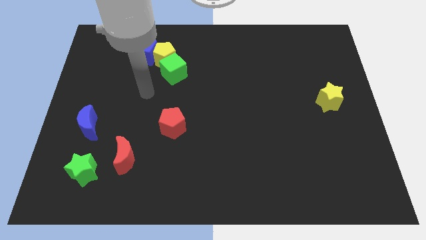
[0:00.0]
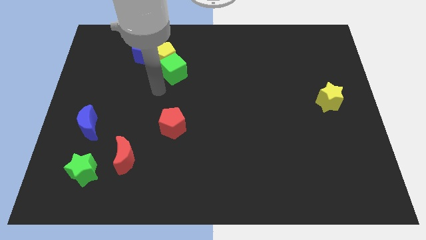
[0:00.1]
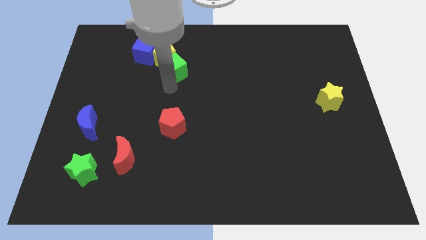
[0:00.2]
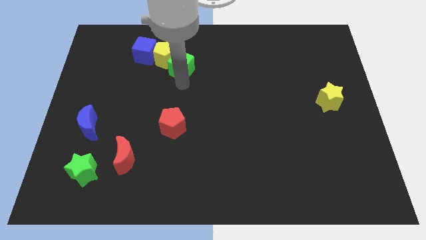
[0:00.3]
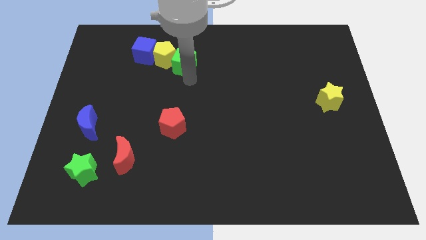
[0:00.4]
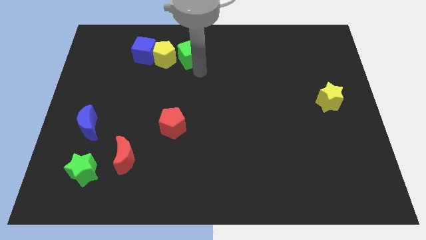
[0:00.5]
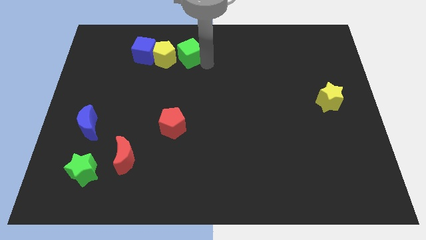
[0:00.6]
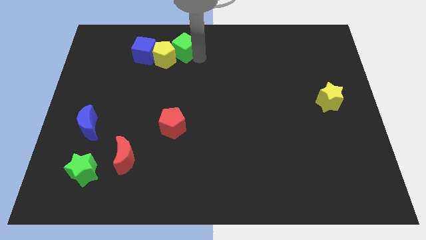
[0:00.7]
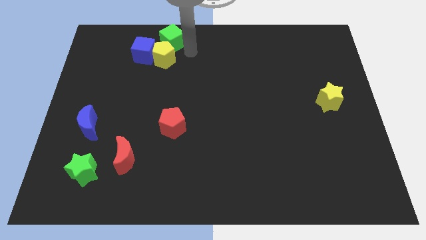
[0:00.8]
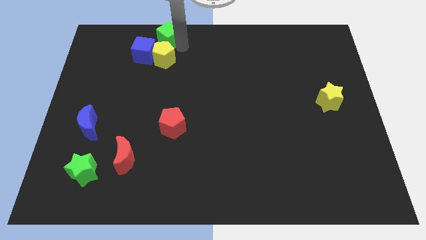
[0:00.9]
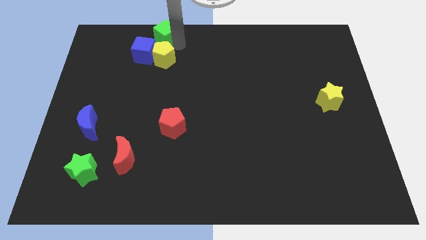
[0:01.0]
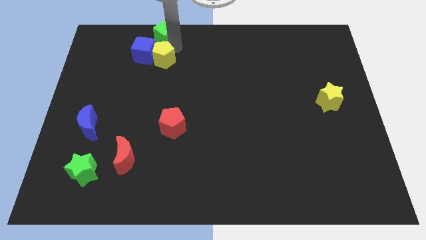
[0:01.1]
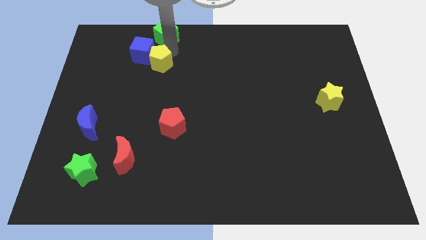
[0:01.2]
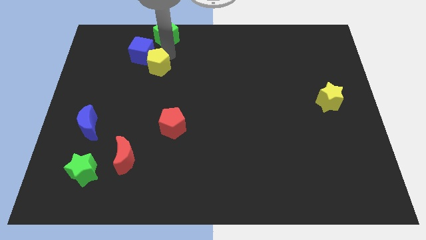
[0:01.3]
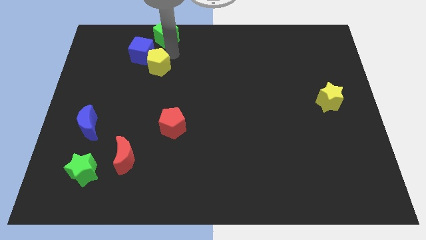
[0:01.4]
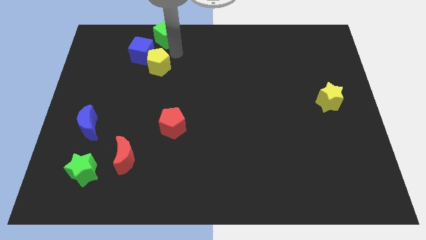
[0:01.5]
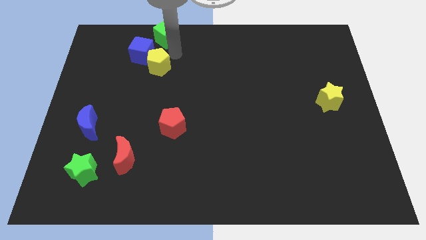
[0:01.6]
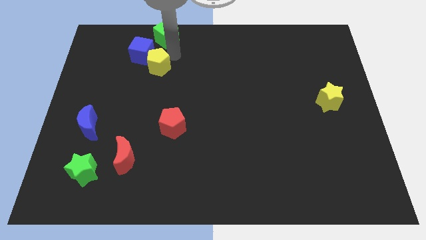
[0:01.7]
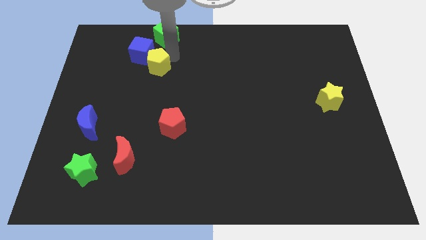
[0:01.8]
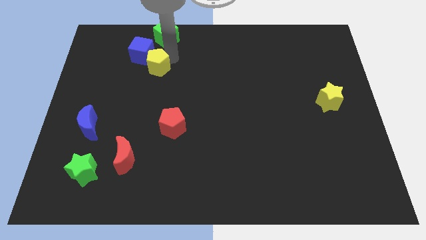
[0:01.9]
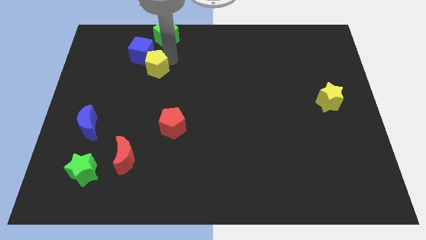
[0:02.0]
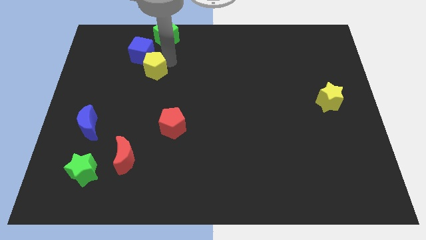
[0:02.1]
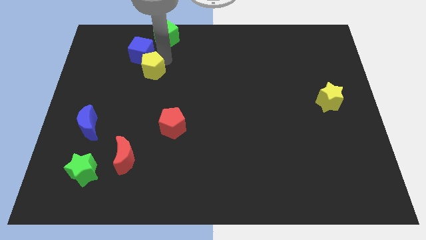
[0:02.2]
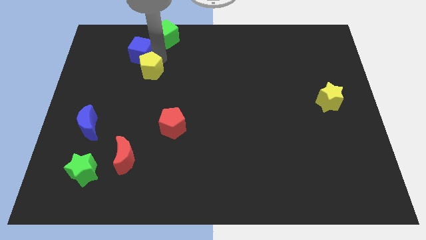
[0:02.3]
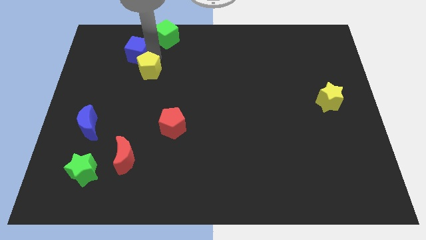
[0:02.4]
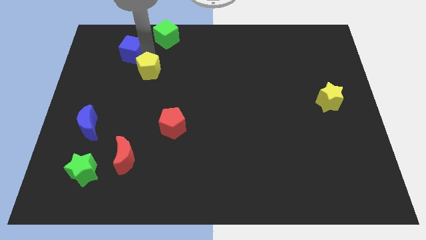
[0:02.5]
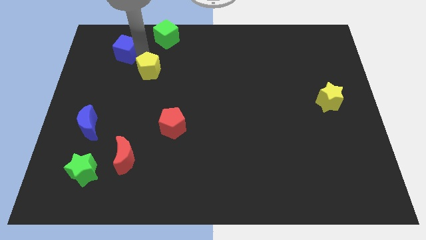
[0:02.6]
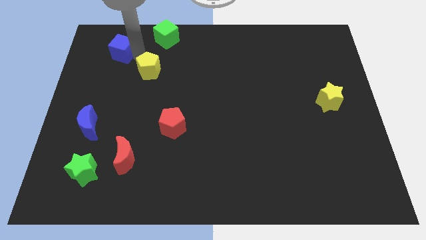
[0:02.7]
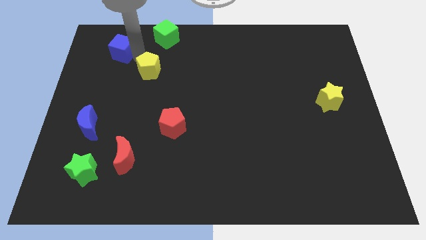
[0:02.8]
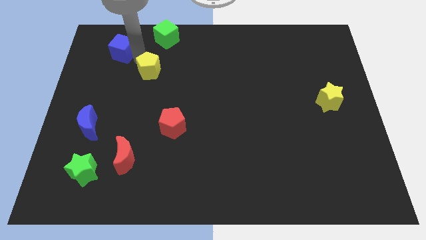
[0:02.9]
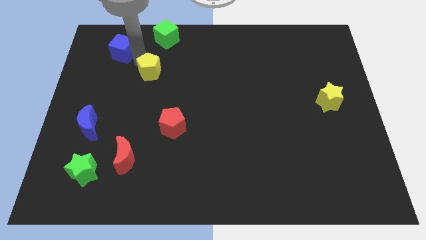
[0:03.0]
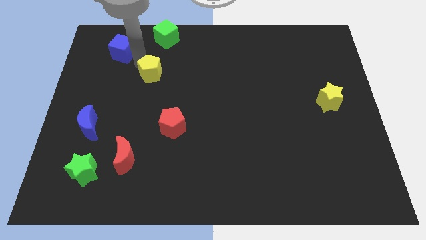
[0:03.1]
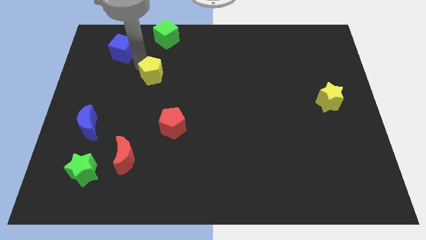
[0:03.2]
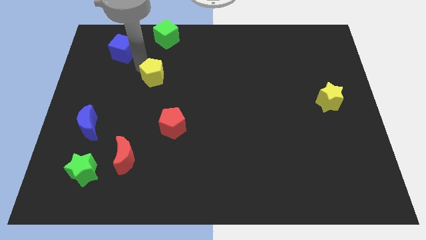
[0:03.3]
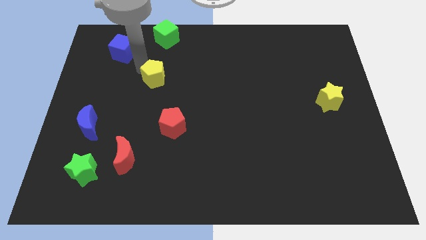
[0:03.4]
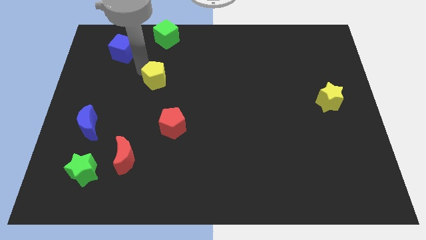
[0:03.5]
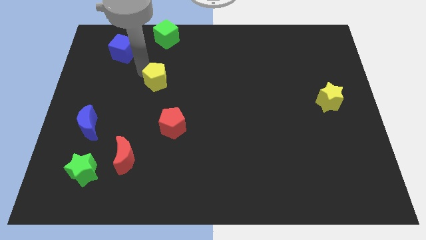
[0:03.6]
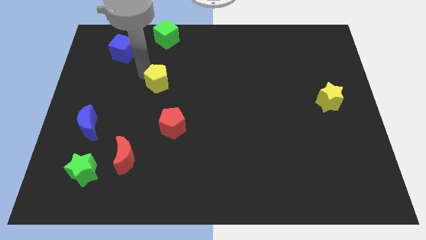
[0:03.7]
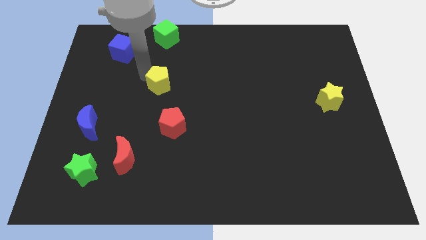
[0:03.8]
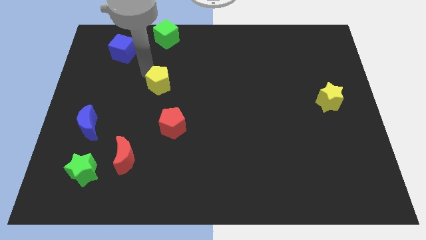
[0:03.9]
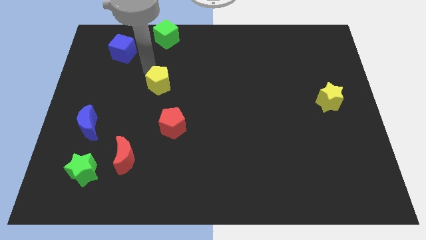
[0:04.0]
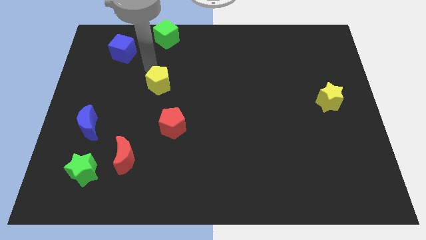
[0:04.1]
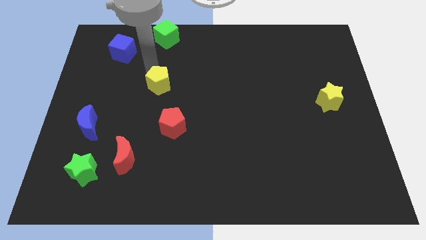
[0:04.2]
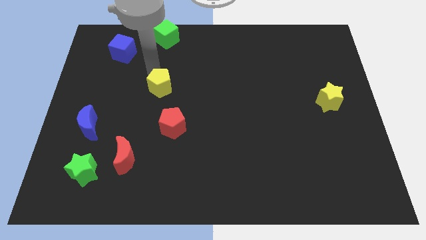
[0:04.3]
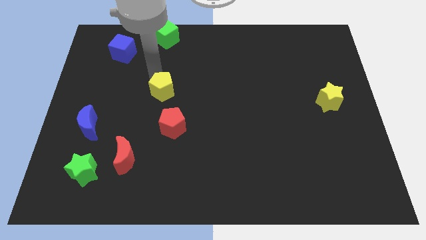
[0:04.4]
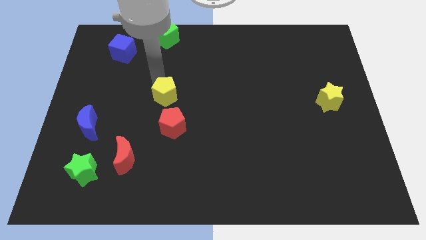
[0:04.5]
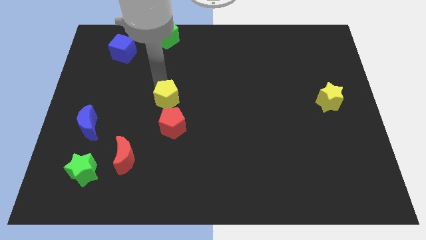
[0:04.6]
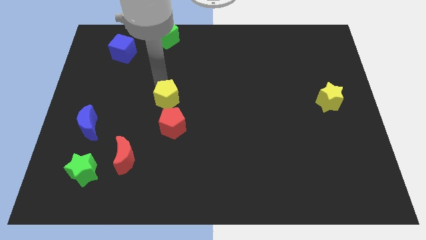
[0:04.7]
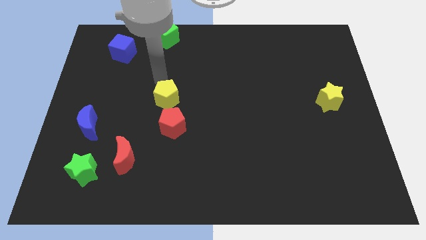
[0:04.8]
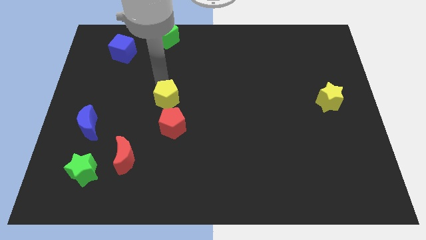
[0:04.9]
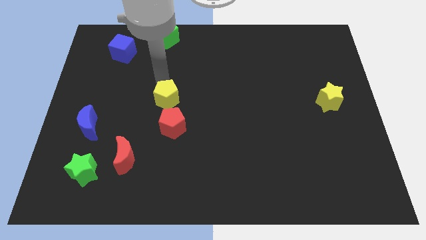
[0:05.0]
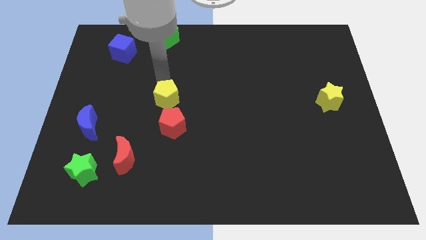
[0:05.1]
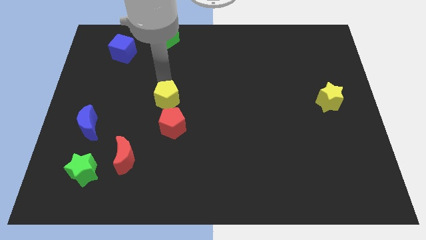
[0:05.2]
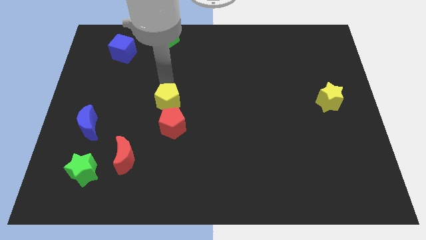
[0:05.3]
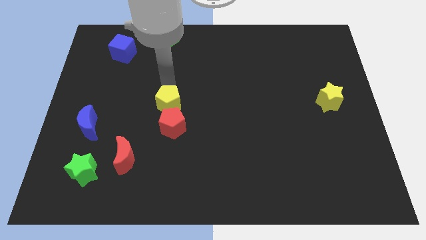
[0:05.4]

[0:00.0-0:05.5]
put the yellow pentagon next to the red pentagon

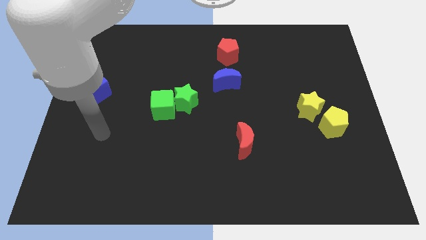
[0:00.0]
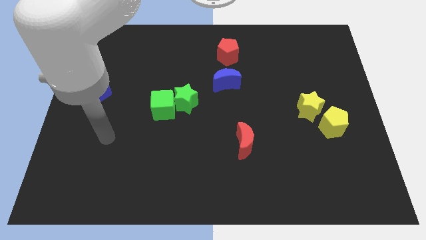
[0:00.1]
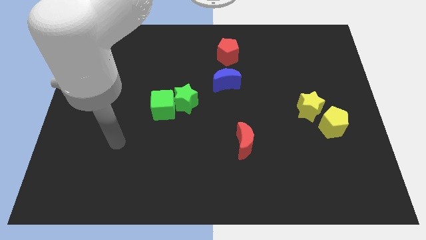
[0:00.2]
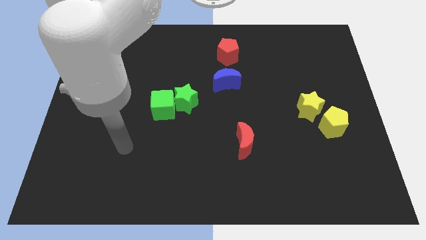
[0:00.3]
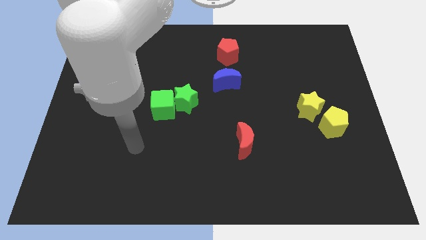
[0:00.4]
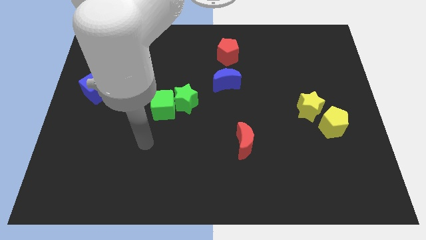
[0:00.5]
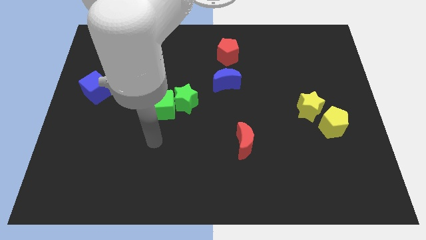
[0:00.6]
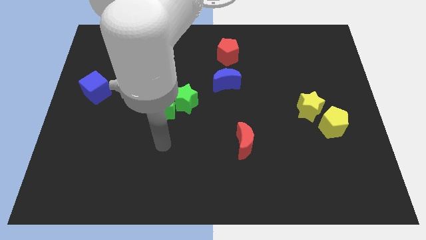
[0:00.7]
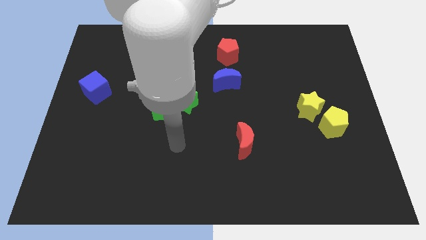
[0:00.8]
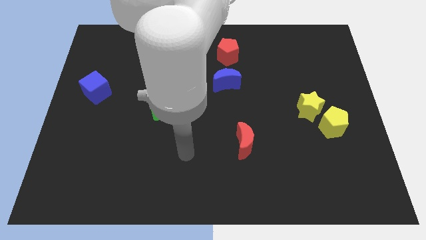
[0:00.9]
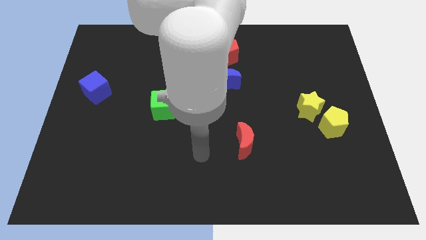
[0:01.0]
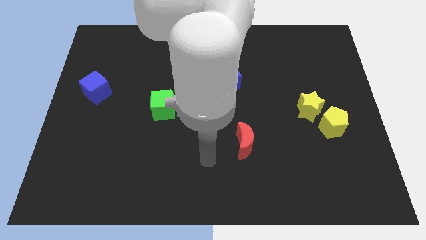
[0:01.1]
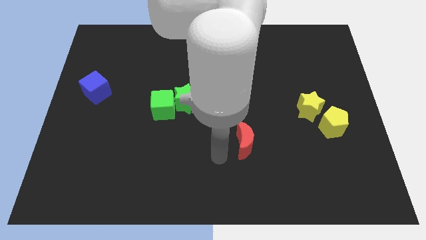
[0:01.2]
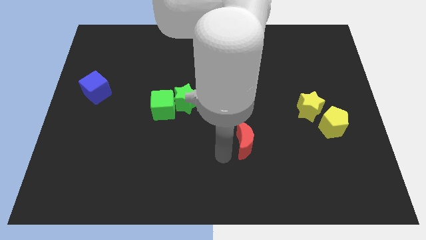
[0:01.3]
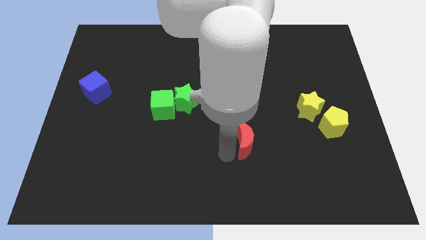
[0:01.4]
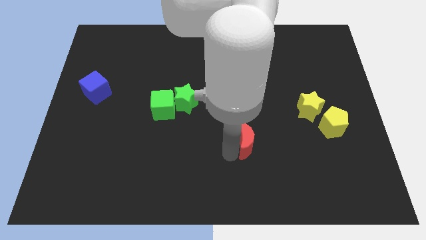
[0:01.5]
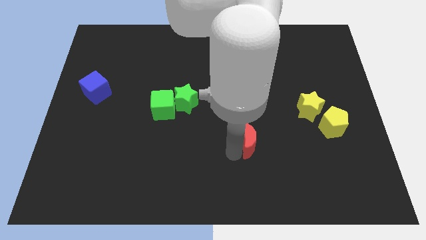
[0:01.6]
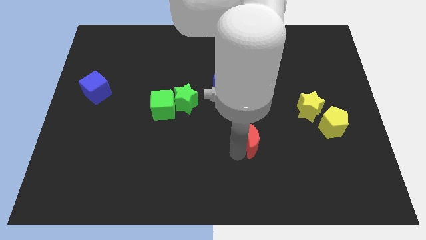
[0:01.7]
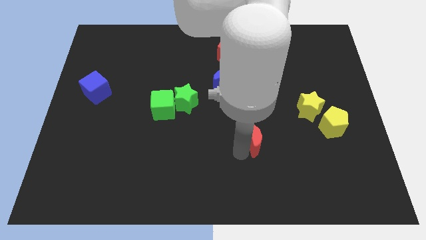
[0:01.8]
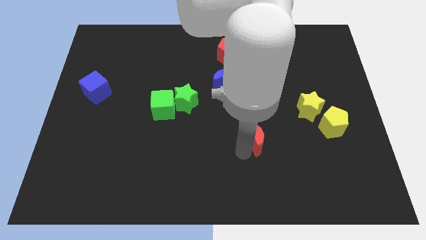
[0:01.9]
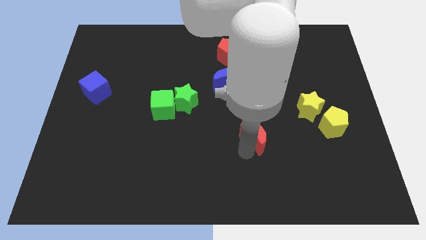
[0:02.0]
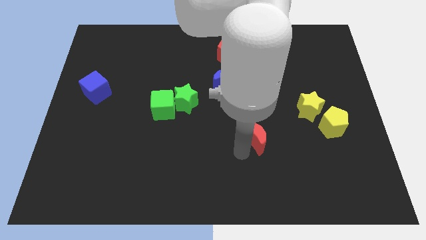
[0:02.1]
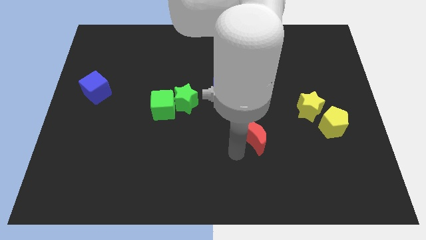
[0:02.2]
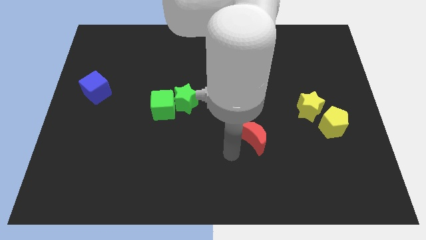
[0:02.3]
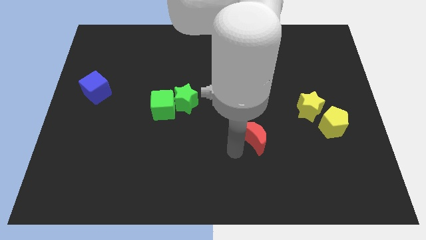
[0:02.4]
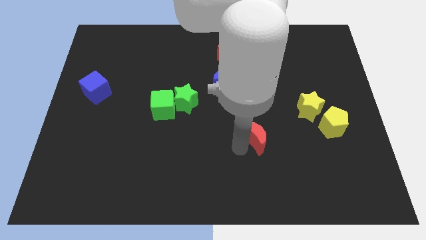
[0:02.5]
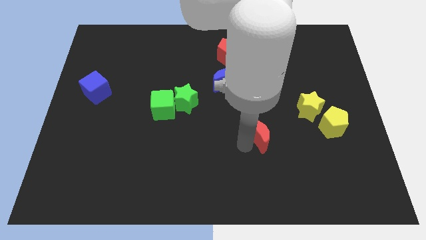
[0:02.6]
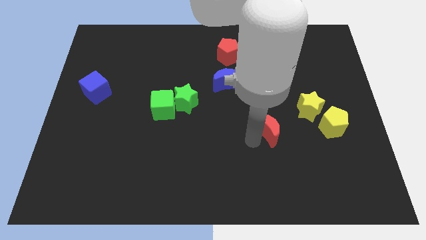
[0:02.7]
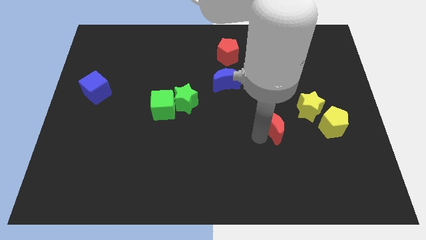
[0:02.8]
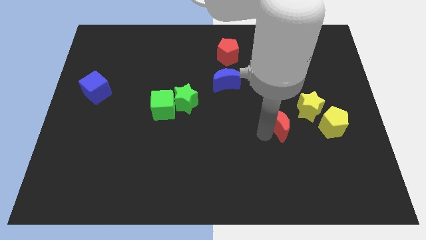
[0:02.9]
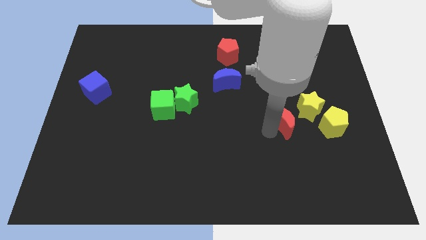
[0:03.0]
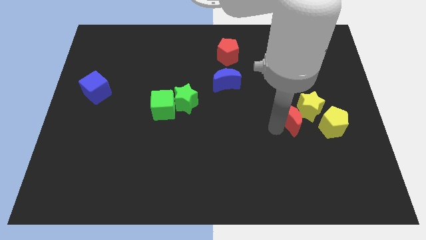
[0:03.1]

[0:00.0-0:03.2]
slide the red moon towards the yellow star
